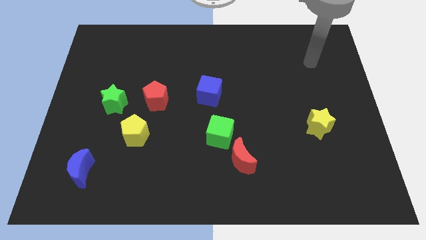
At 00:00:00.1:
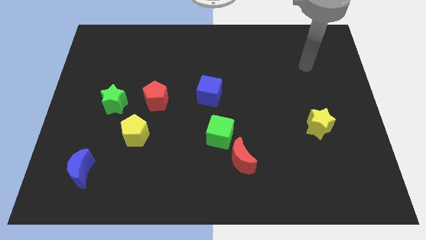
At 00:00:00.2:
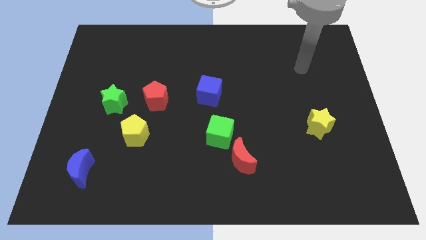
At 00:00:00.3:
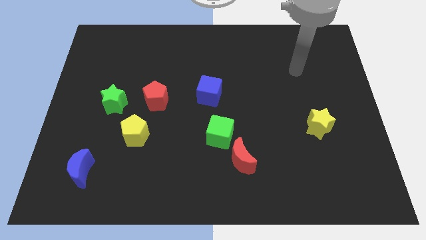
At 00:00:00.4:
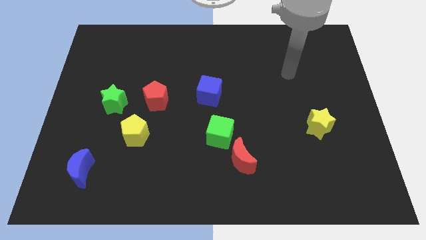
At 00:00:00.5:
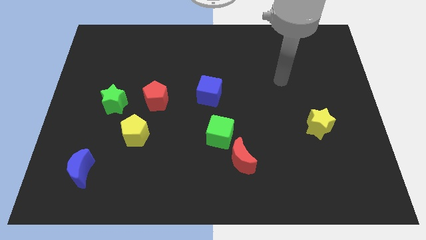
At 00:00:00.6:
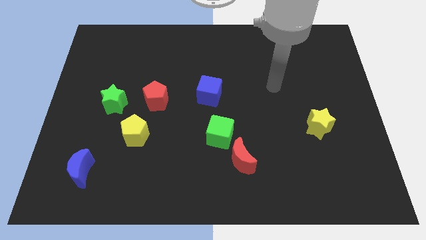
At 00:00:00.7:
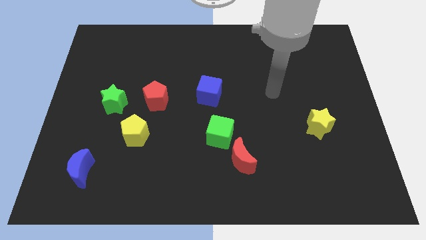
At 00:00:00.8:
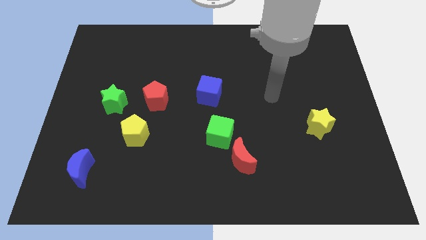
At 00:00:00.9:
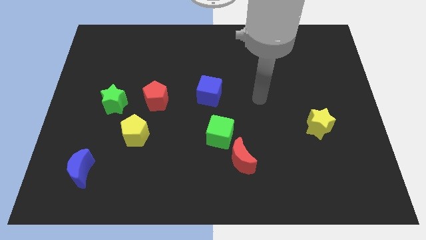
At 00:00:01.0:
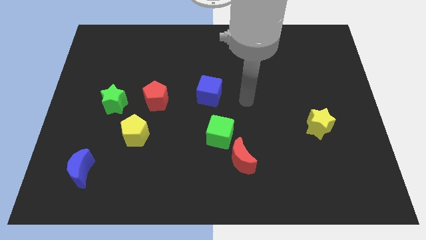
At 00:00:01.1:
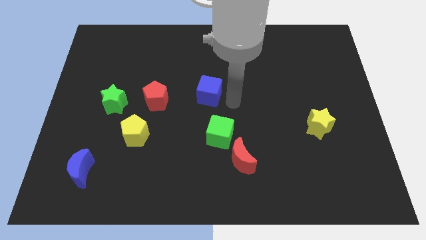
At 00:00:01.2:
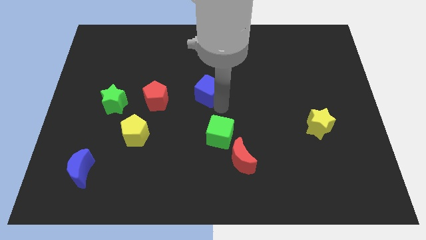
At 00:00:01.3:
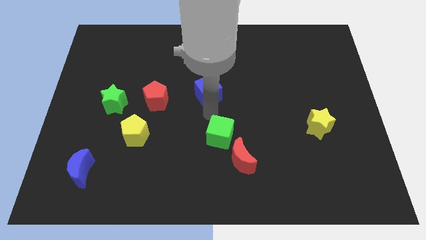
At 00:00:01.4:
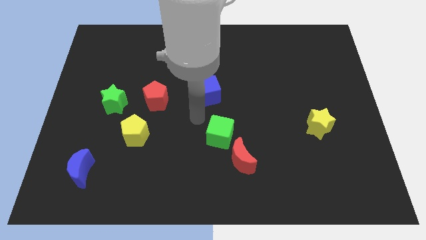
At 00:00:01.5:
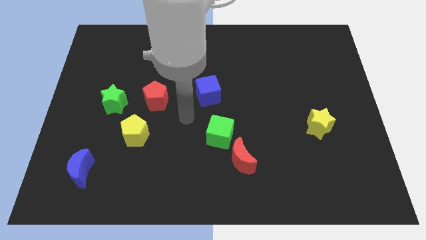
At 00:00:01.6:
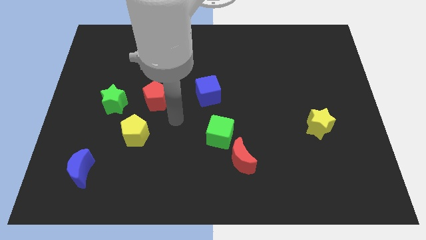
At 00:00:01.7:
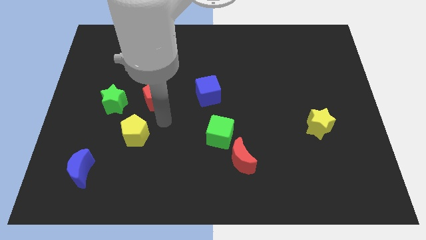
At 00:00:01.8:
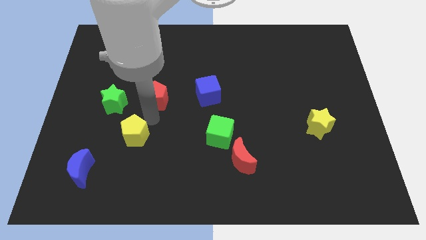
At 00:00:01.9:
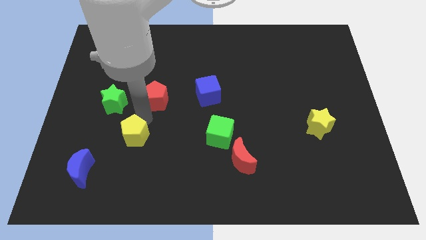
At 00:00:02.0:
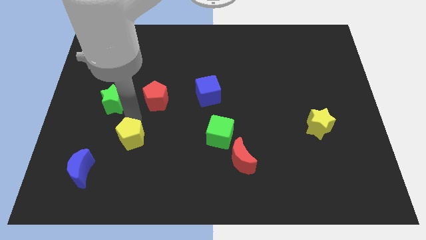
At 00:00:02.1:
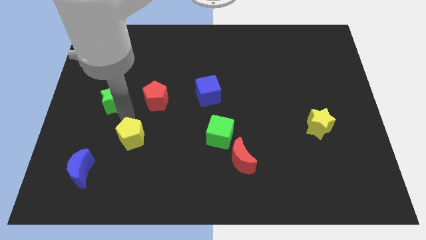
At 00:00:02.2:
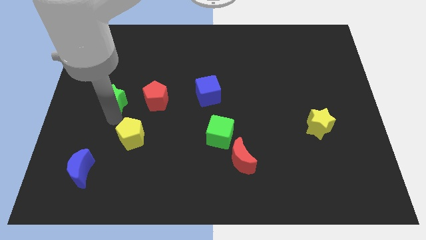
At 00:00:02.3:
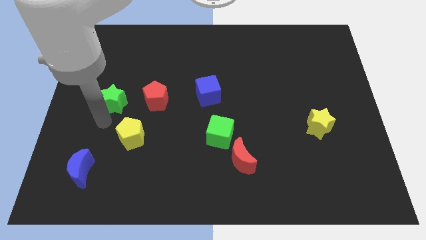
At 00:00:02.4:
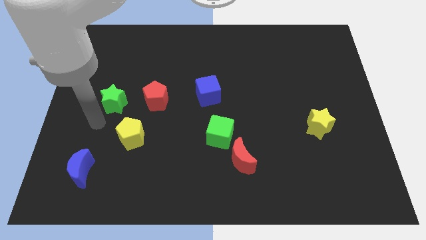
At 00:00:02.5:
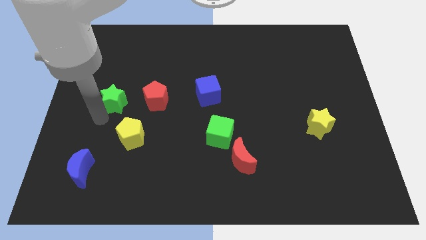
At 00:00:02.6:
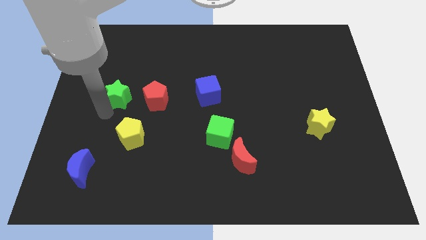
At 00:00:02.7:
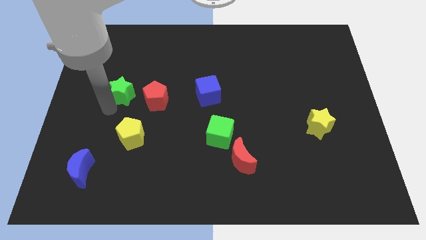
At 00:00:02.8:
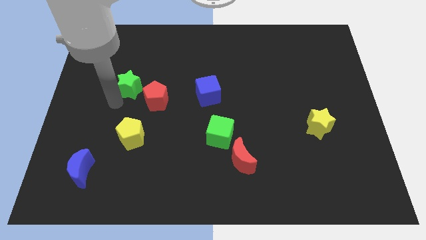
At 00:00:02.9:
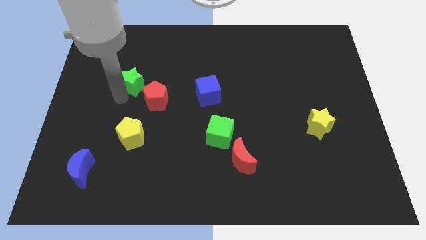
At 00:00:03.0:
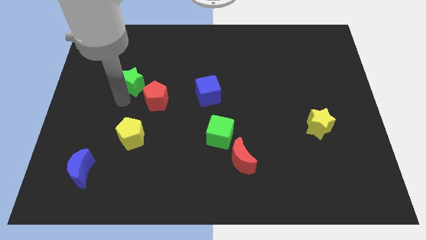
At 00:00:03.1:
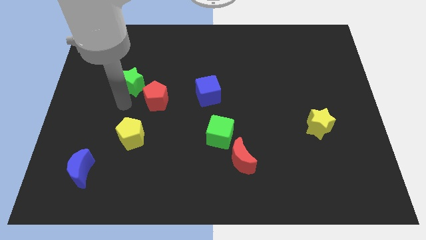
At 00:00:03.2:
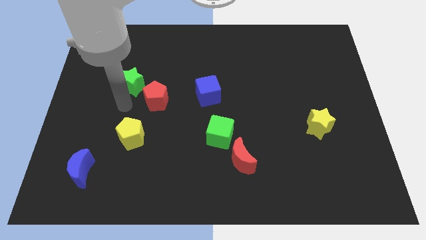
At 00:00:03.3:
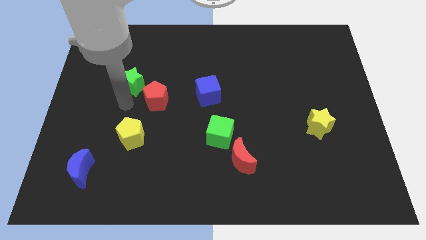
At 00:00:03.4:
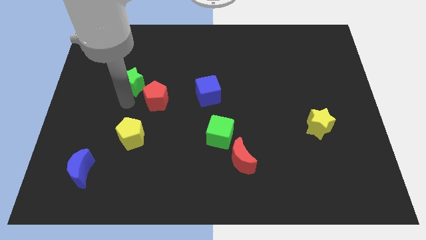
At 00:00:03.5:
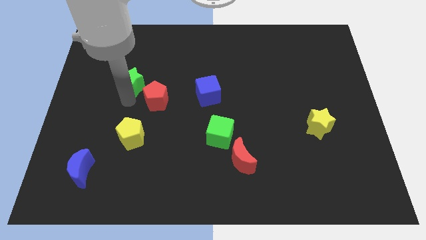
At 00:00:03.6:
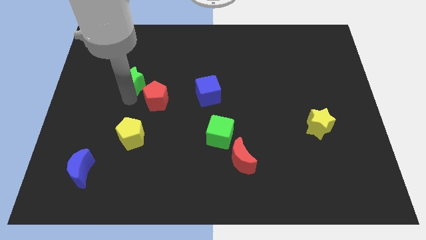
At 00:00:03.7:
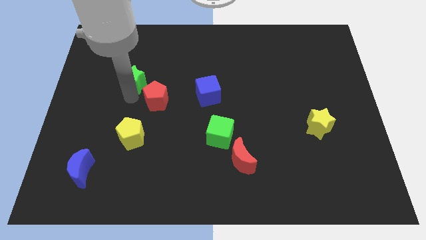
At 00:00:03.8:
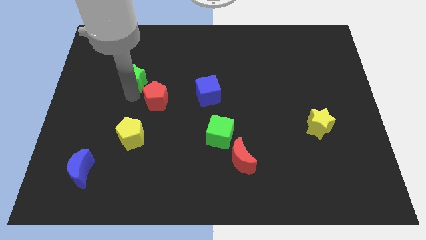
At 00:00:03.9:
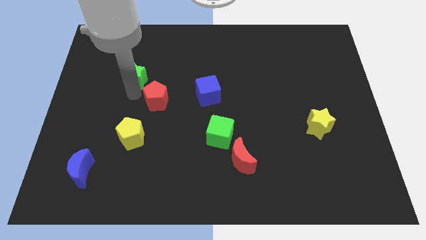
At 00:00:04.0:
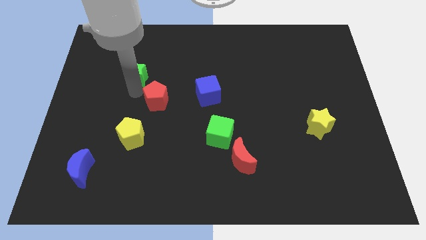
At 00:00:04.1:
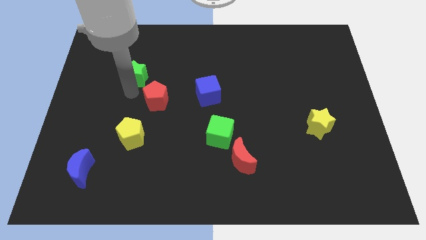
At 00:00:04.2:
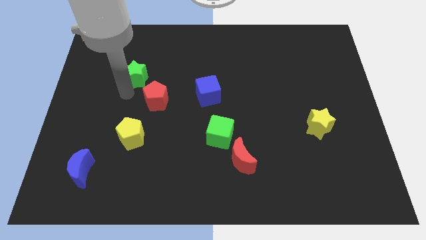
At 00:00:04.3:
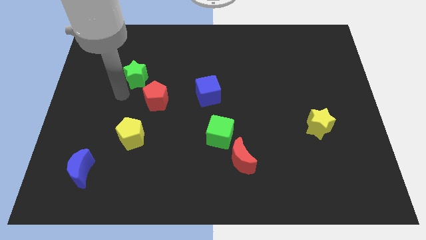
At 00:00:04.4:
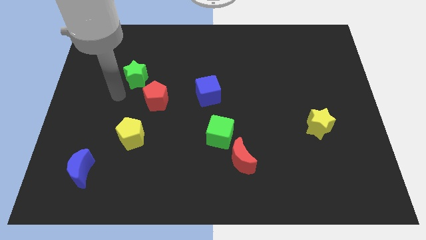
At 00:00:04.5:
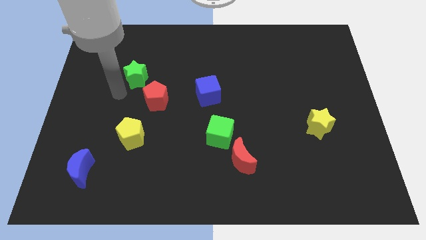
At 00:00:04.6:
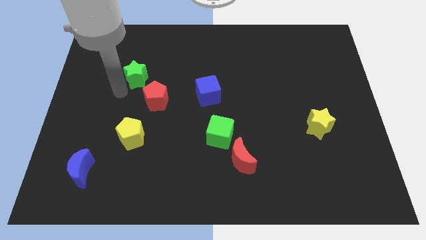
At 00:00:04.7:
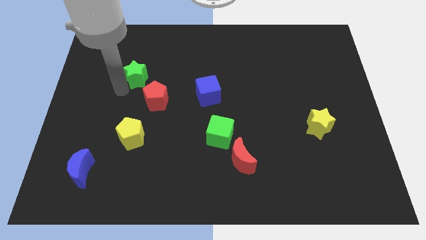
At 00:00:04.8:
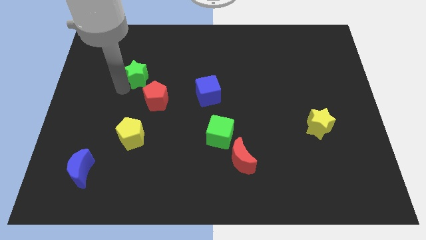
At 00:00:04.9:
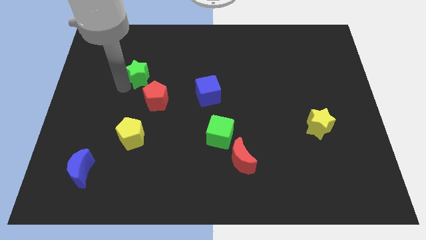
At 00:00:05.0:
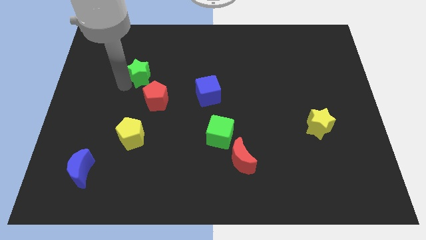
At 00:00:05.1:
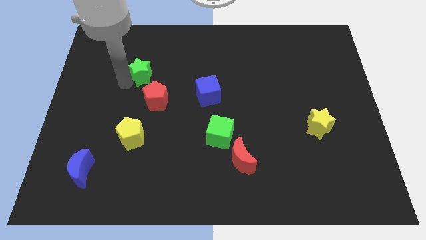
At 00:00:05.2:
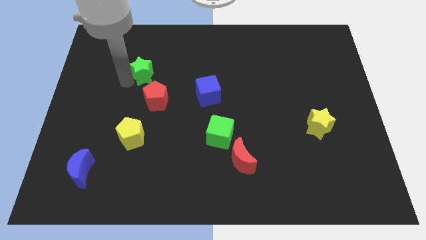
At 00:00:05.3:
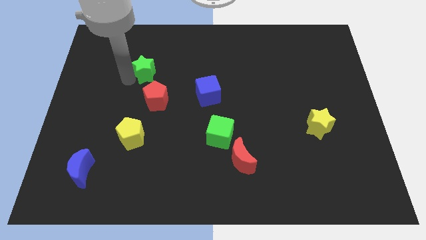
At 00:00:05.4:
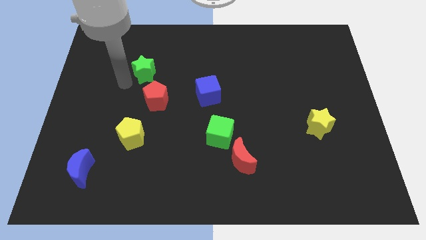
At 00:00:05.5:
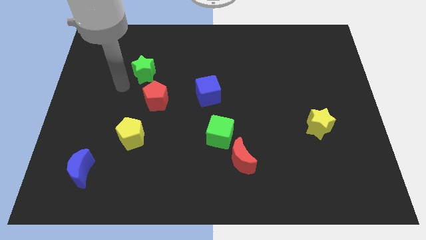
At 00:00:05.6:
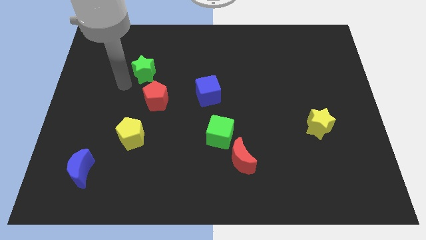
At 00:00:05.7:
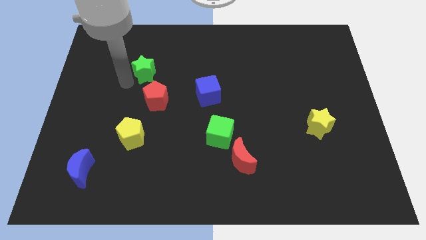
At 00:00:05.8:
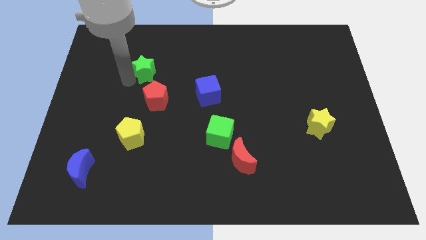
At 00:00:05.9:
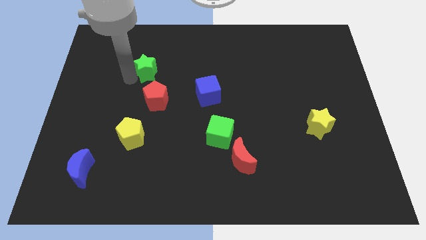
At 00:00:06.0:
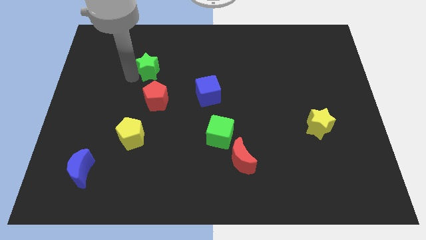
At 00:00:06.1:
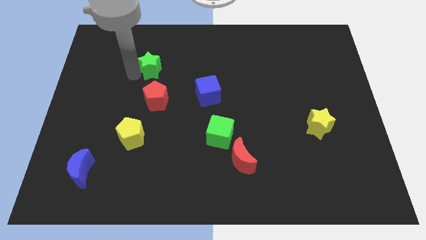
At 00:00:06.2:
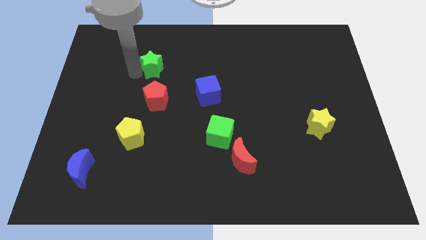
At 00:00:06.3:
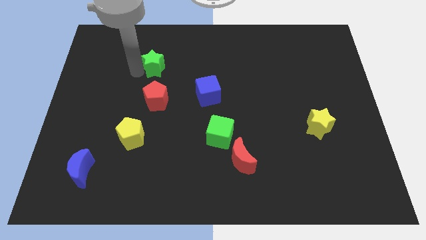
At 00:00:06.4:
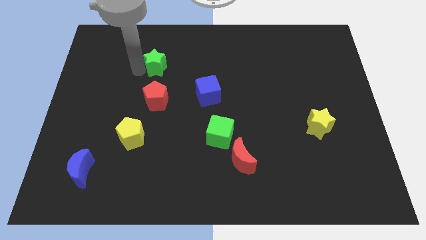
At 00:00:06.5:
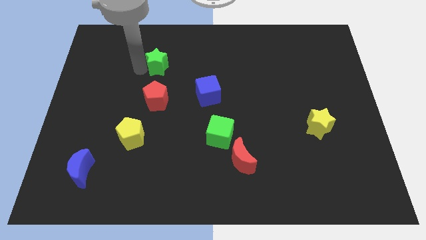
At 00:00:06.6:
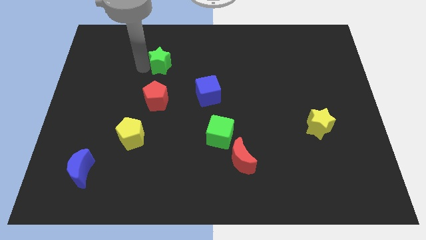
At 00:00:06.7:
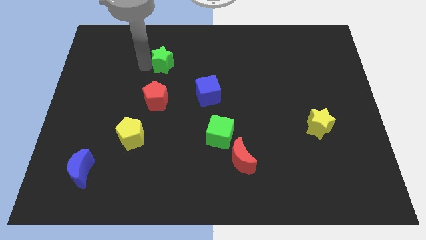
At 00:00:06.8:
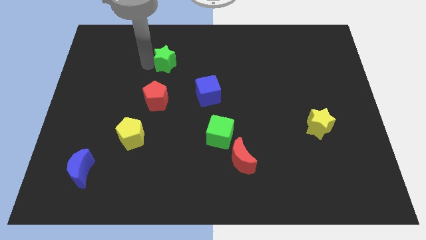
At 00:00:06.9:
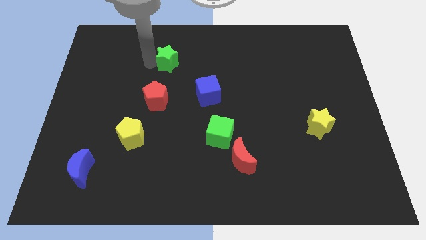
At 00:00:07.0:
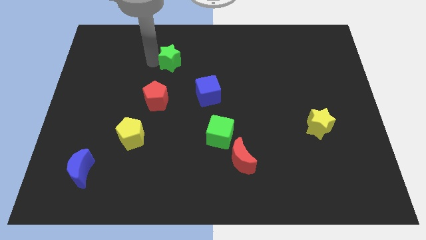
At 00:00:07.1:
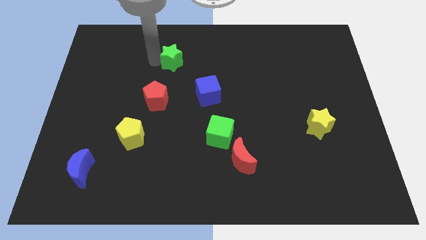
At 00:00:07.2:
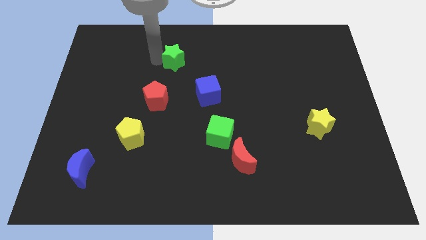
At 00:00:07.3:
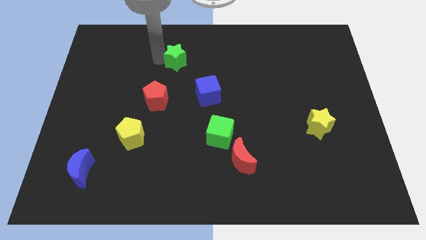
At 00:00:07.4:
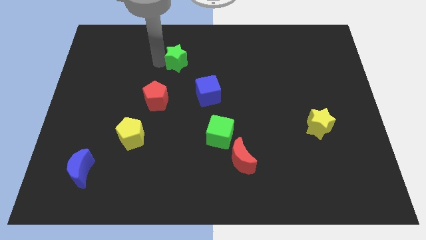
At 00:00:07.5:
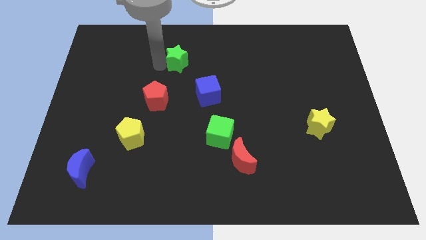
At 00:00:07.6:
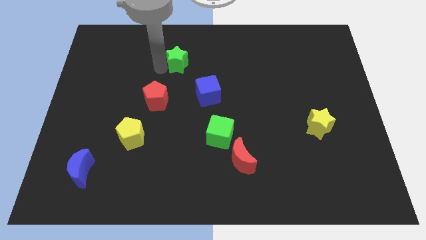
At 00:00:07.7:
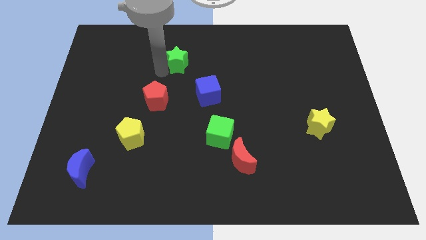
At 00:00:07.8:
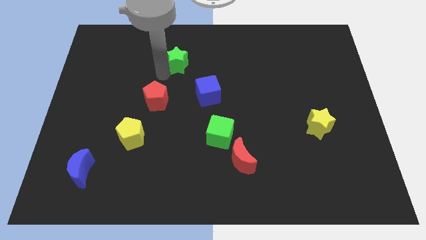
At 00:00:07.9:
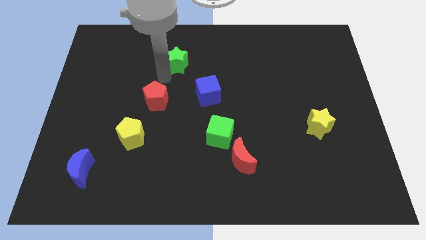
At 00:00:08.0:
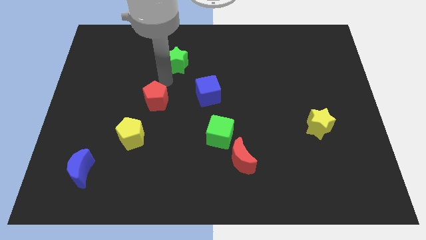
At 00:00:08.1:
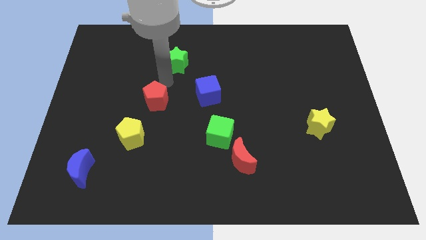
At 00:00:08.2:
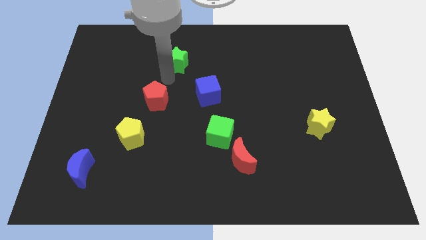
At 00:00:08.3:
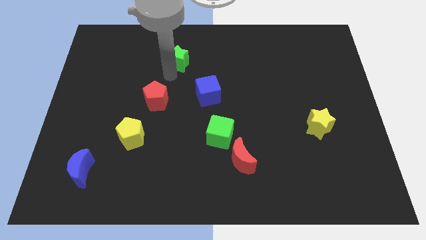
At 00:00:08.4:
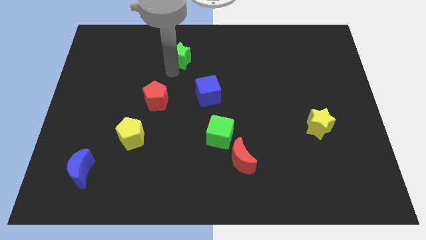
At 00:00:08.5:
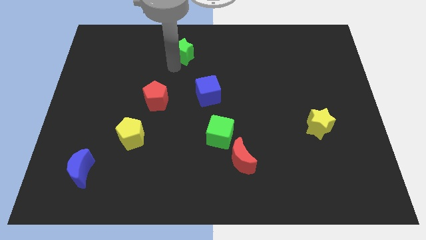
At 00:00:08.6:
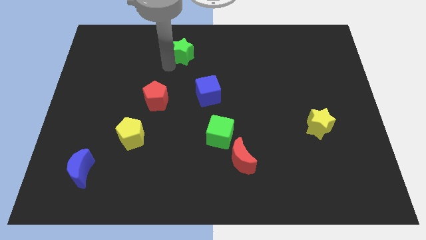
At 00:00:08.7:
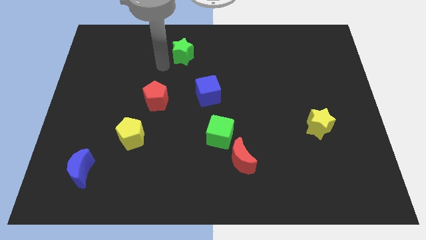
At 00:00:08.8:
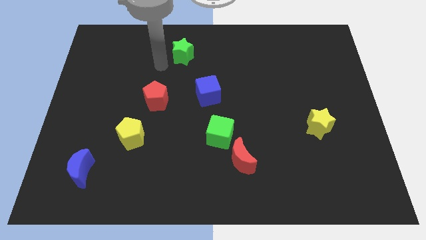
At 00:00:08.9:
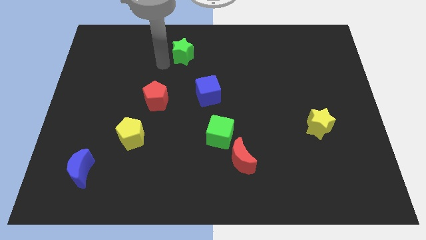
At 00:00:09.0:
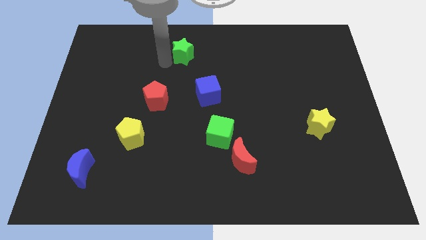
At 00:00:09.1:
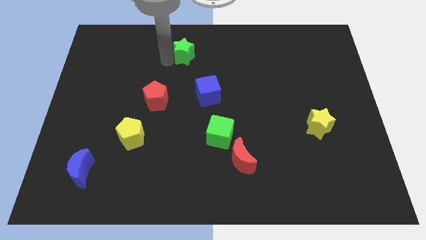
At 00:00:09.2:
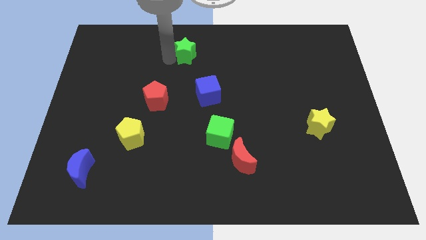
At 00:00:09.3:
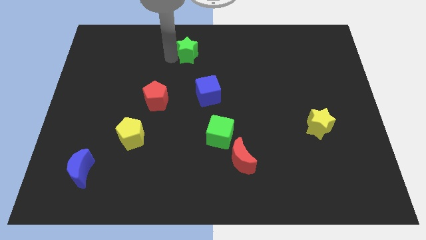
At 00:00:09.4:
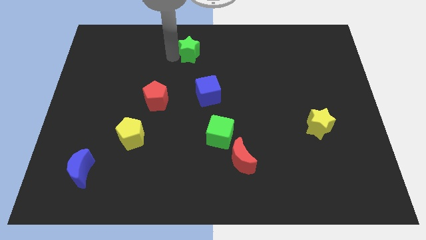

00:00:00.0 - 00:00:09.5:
push the green star to the top
